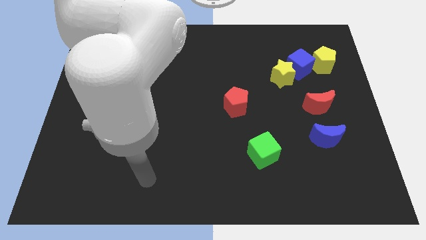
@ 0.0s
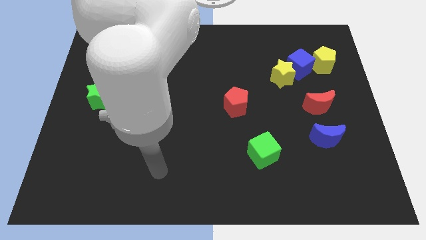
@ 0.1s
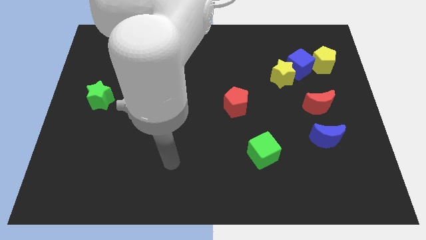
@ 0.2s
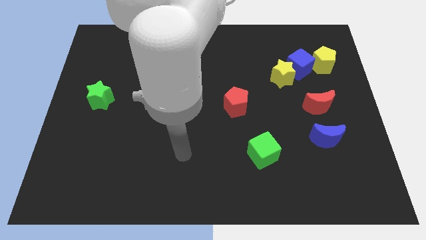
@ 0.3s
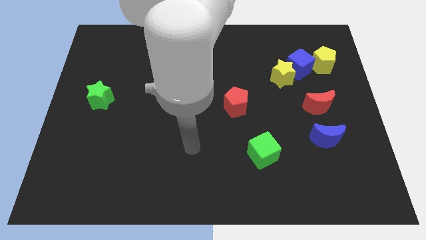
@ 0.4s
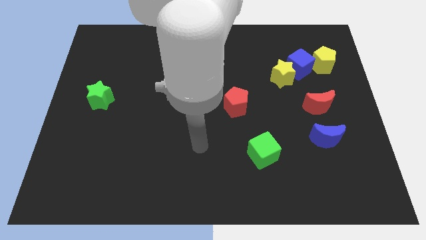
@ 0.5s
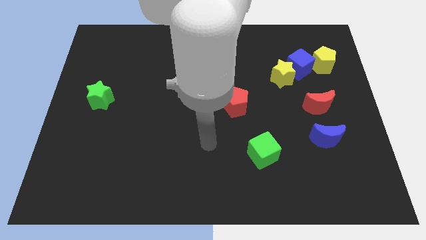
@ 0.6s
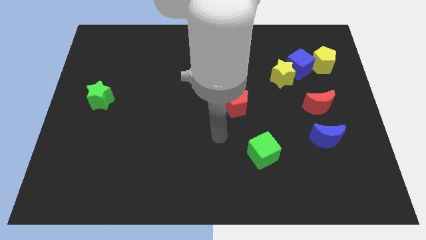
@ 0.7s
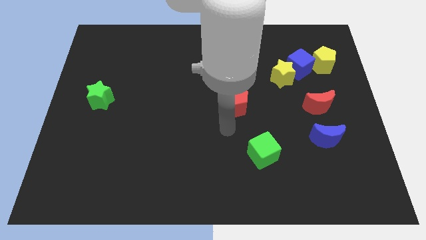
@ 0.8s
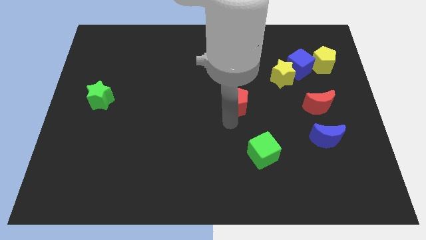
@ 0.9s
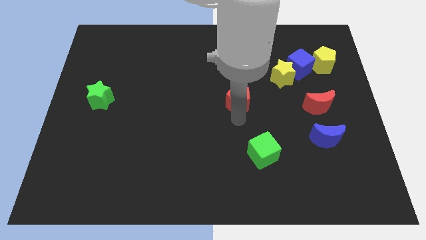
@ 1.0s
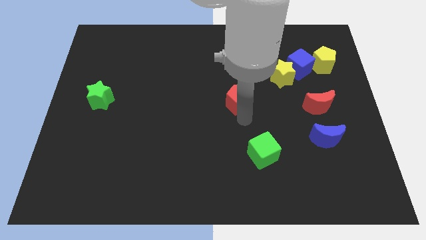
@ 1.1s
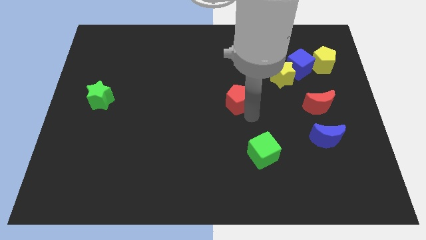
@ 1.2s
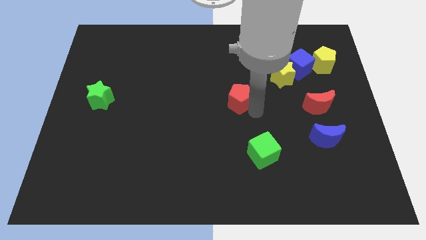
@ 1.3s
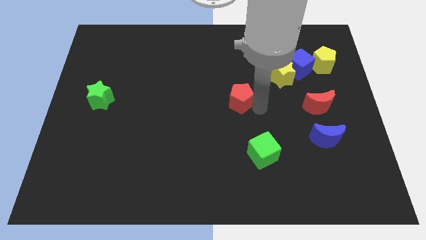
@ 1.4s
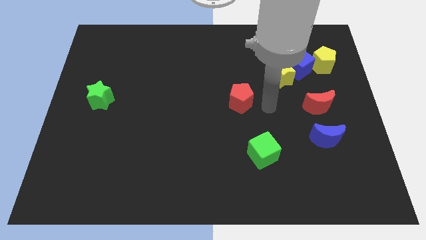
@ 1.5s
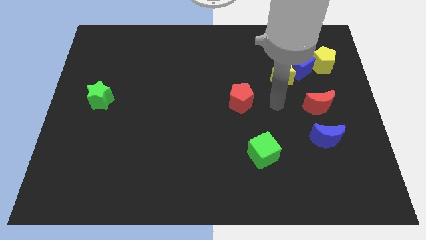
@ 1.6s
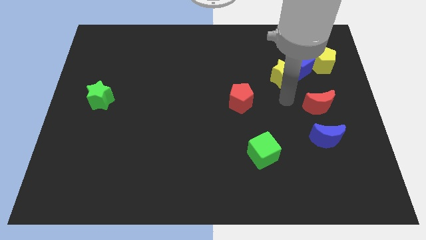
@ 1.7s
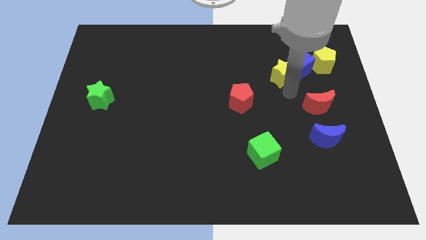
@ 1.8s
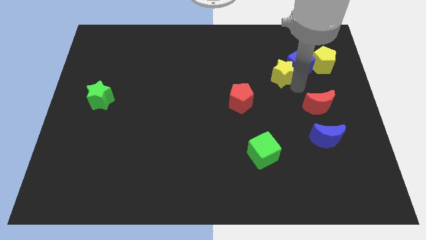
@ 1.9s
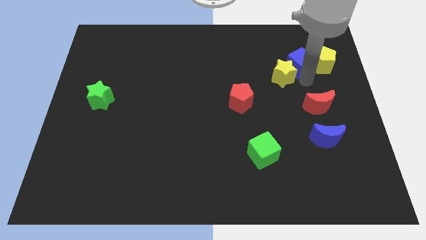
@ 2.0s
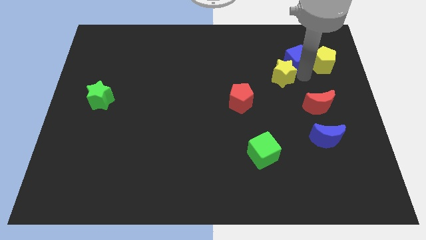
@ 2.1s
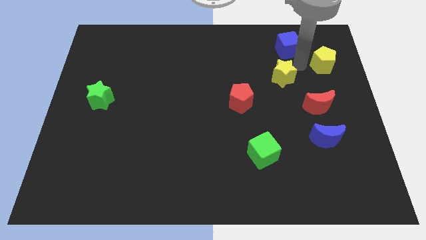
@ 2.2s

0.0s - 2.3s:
pull the yellow star apart from the blue cube

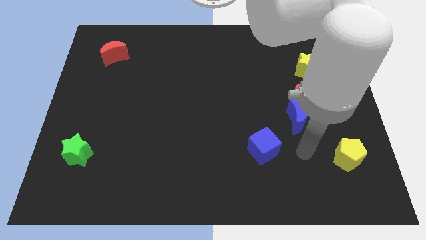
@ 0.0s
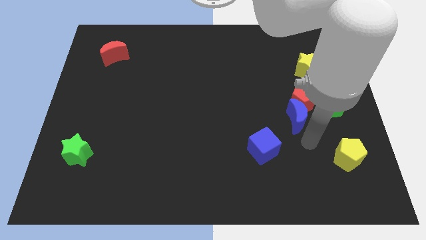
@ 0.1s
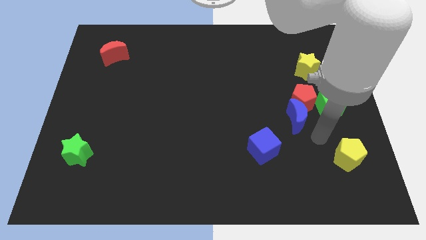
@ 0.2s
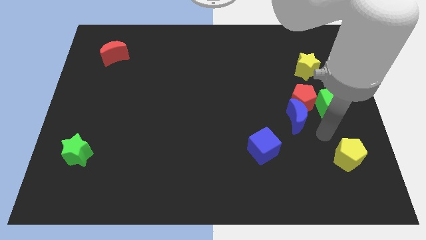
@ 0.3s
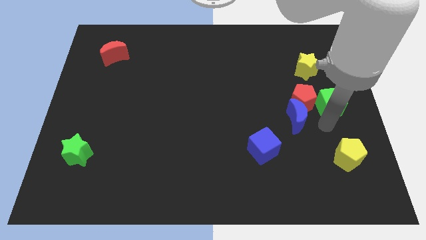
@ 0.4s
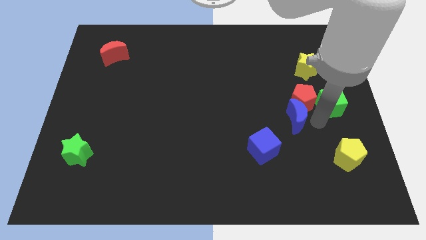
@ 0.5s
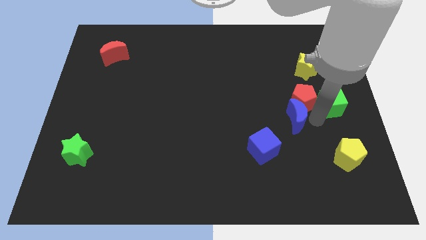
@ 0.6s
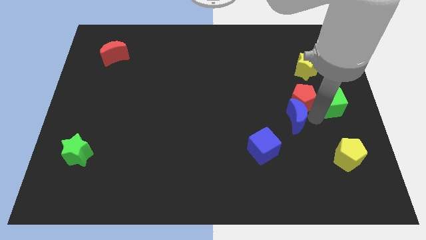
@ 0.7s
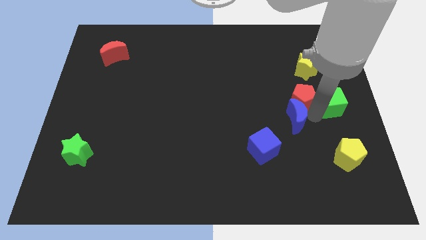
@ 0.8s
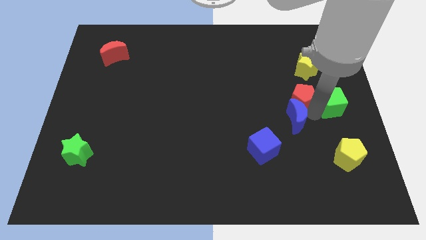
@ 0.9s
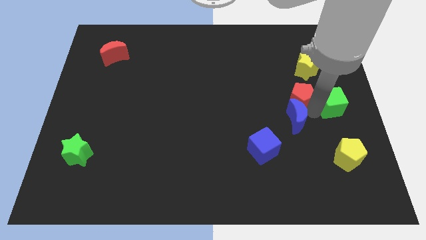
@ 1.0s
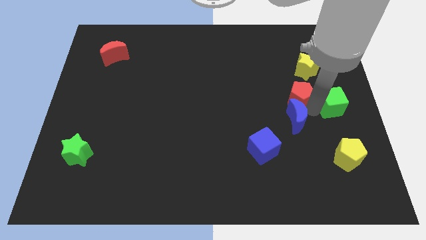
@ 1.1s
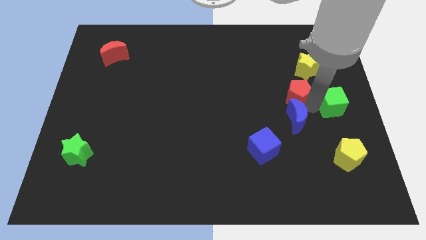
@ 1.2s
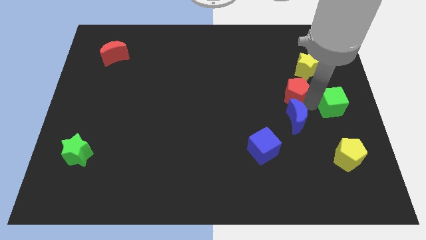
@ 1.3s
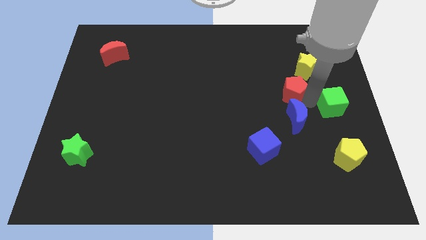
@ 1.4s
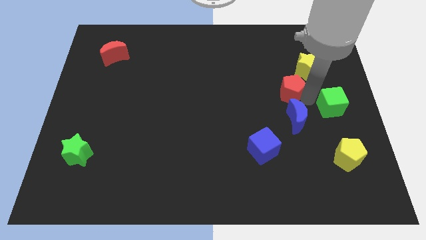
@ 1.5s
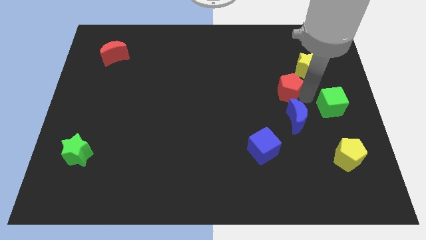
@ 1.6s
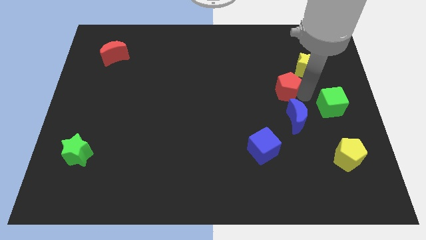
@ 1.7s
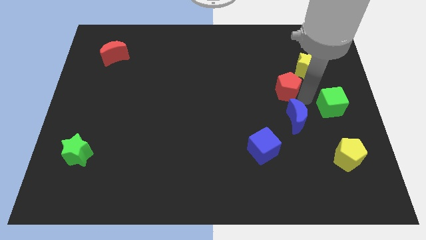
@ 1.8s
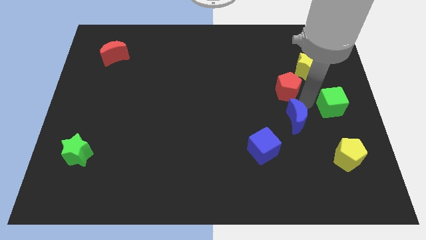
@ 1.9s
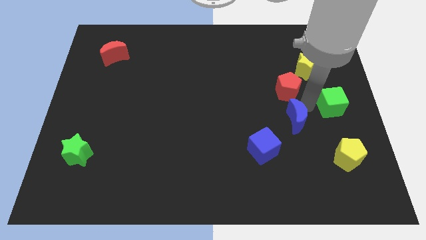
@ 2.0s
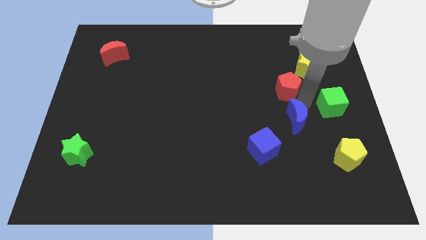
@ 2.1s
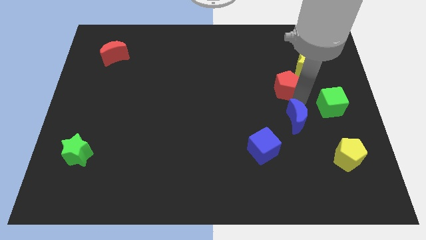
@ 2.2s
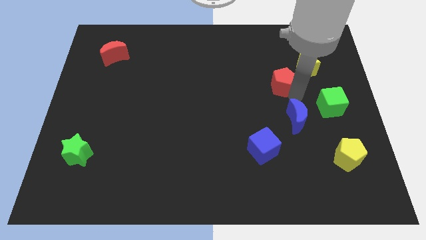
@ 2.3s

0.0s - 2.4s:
move the red pentagon away from the blue moon and green cube

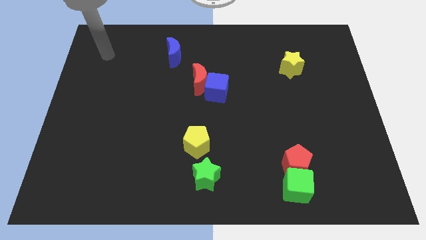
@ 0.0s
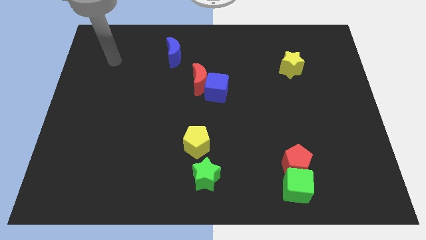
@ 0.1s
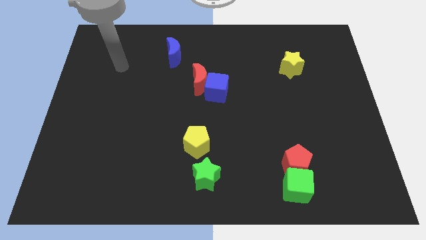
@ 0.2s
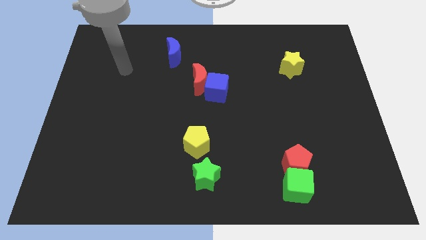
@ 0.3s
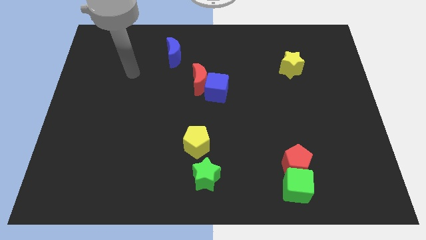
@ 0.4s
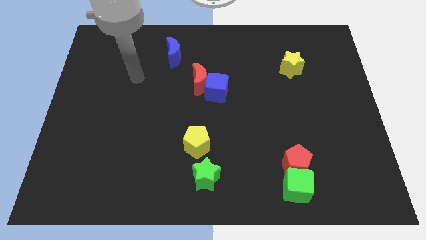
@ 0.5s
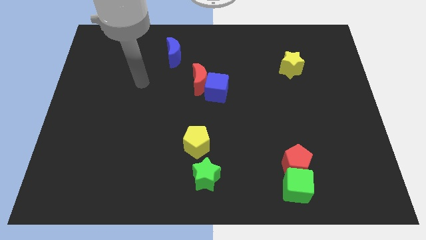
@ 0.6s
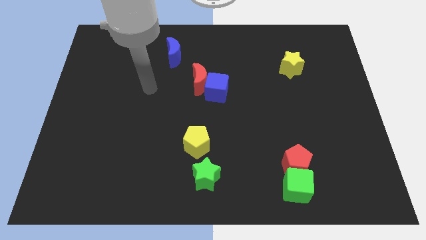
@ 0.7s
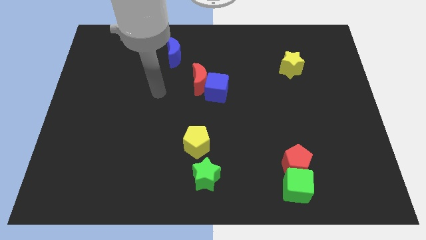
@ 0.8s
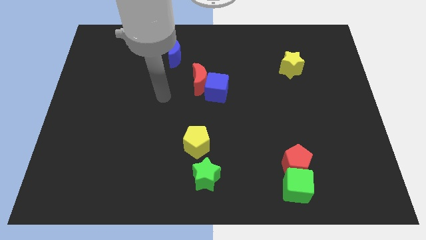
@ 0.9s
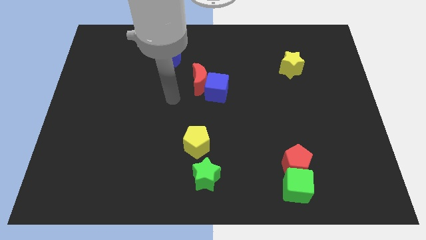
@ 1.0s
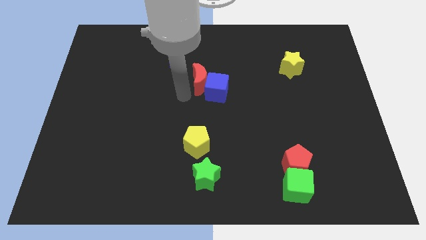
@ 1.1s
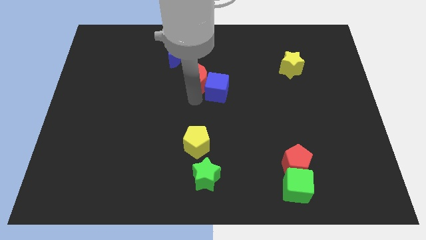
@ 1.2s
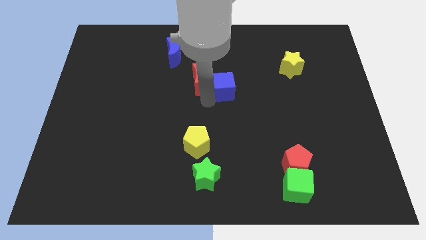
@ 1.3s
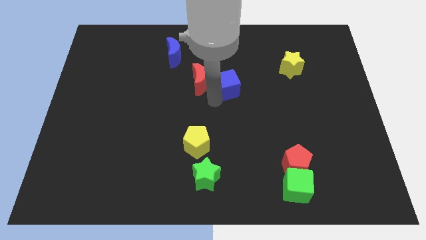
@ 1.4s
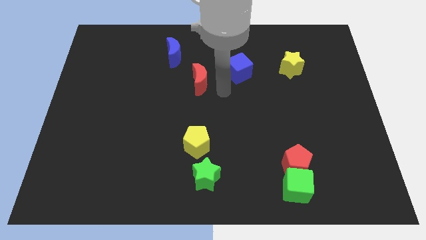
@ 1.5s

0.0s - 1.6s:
separate the red moon from the blue cube

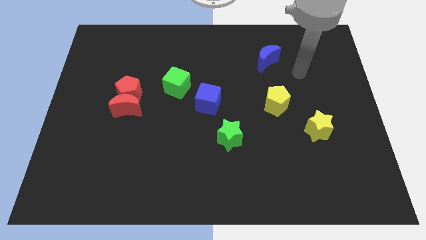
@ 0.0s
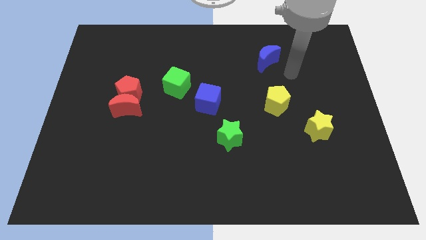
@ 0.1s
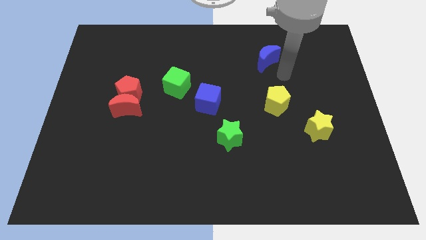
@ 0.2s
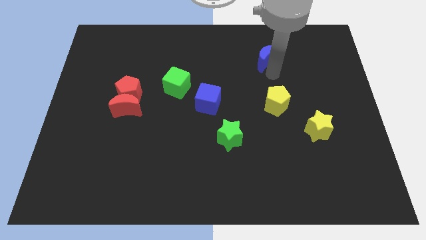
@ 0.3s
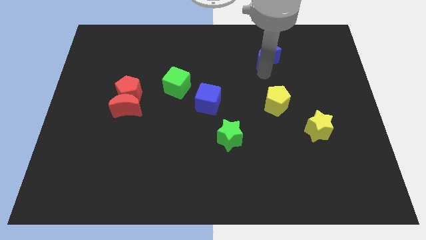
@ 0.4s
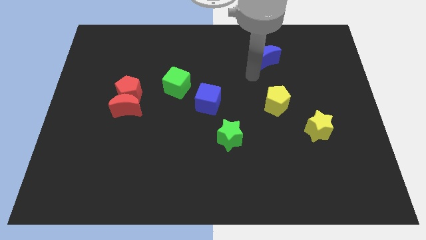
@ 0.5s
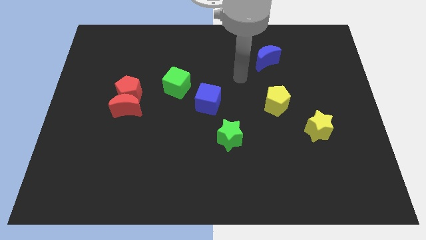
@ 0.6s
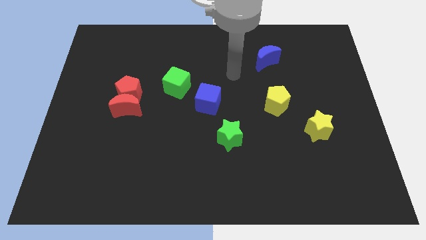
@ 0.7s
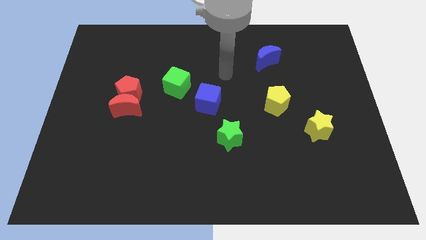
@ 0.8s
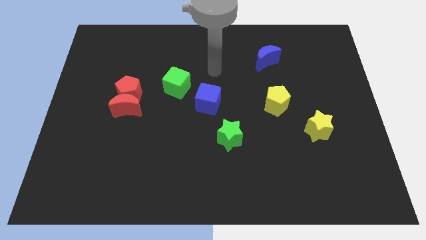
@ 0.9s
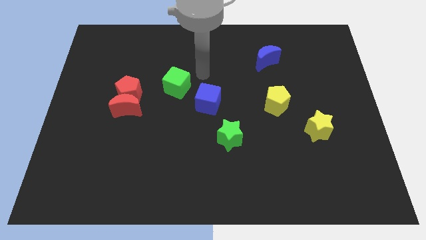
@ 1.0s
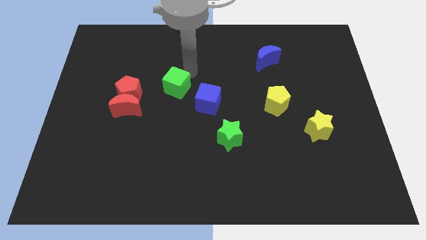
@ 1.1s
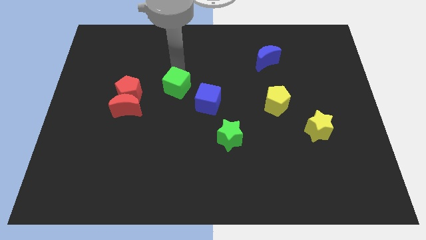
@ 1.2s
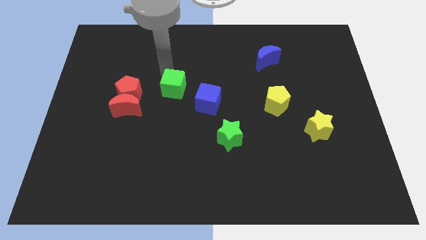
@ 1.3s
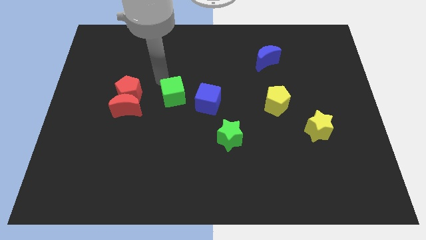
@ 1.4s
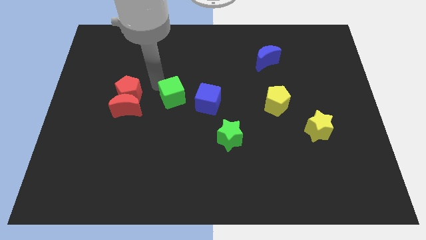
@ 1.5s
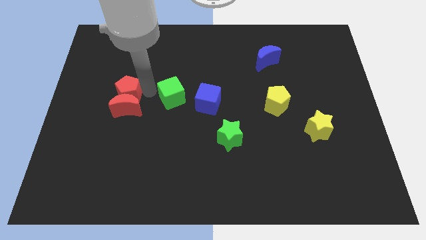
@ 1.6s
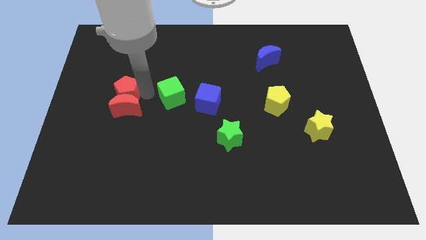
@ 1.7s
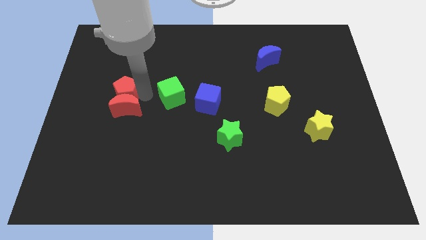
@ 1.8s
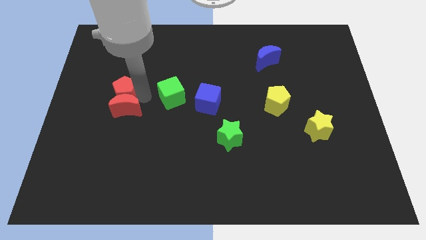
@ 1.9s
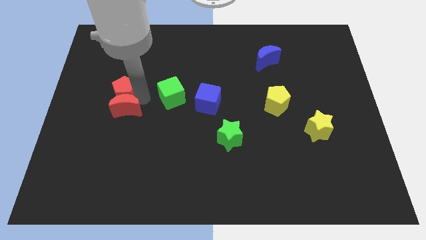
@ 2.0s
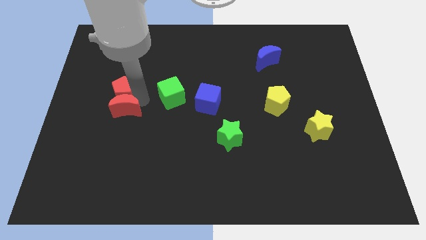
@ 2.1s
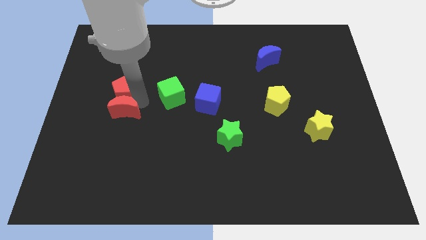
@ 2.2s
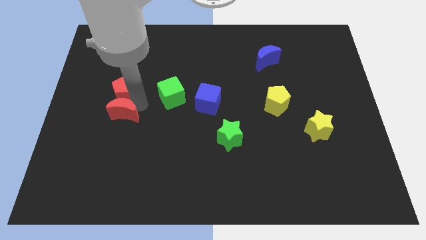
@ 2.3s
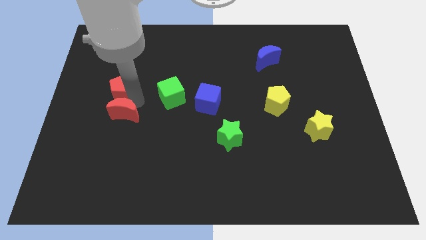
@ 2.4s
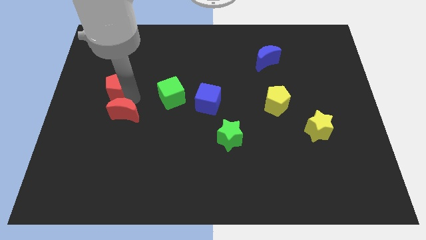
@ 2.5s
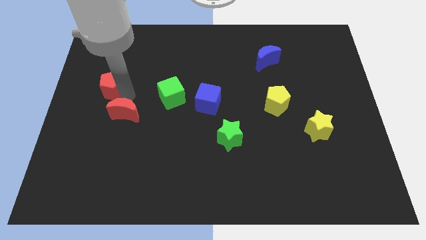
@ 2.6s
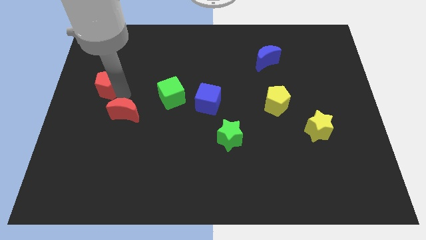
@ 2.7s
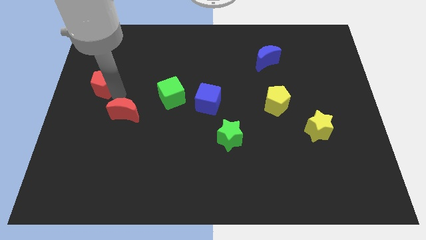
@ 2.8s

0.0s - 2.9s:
move the red moon away from the red pentagon

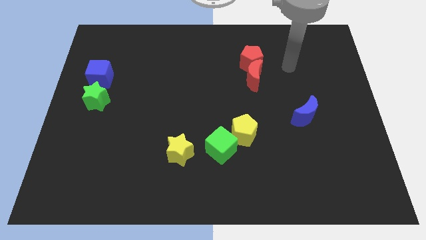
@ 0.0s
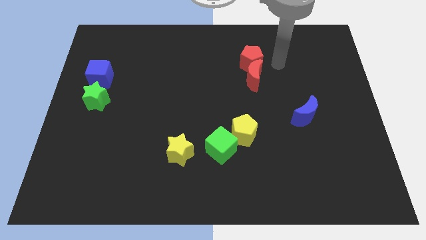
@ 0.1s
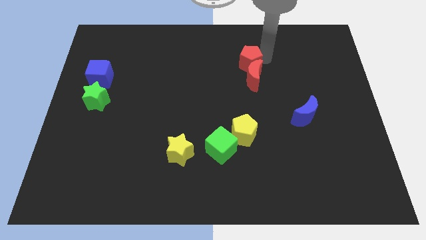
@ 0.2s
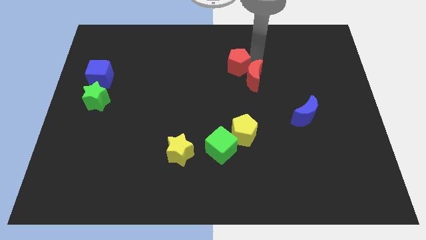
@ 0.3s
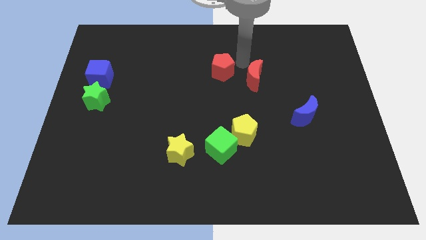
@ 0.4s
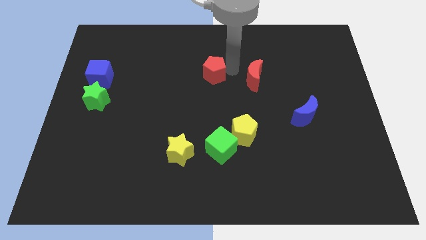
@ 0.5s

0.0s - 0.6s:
separate the red moon from the red pentagon
